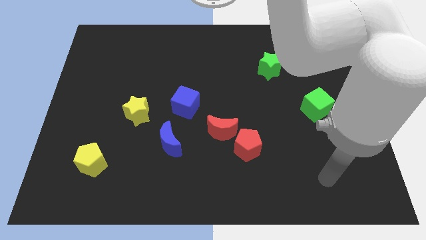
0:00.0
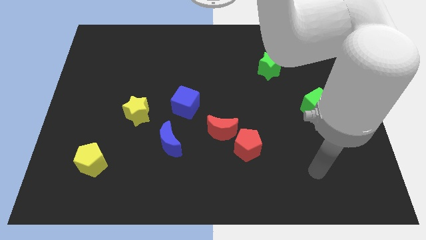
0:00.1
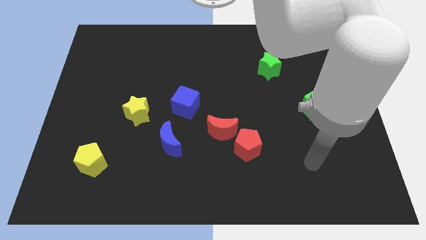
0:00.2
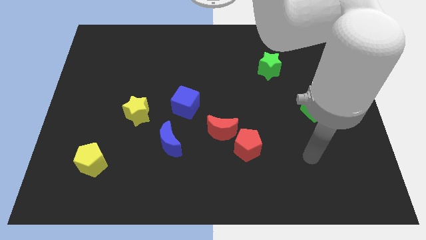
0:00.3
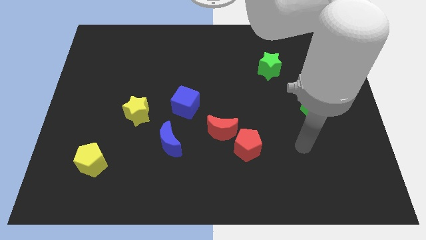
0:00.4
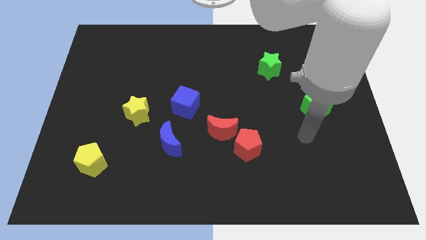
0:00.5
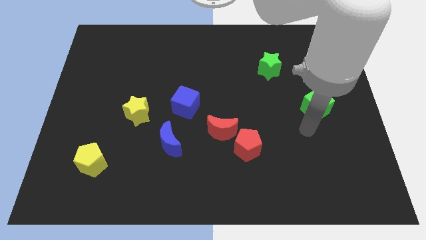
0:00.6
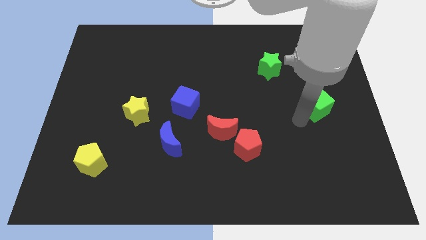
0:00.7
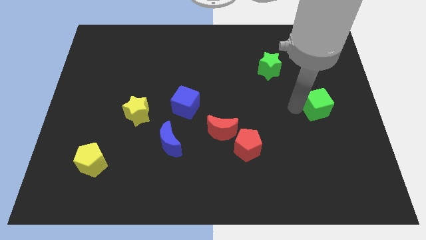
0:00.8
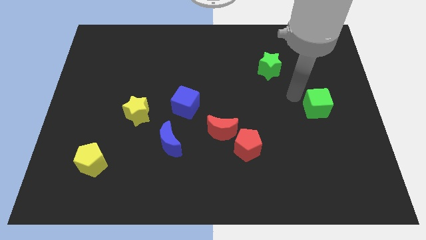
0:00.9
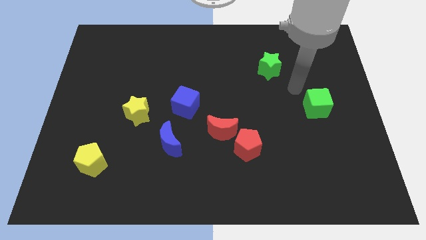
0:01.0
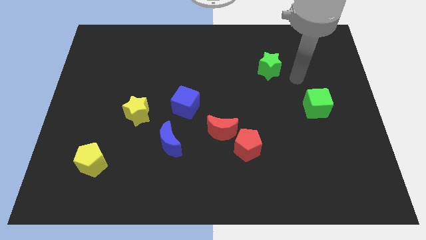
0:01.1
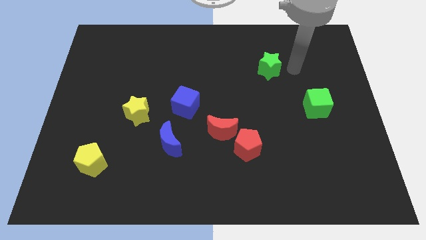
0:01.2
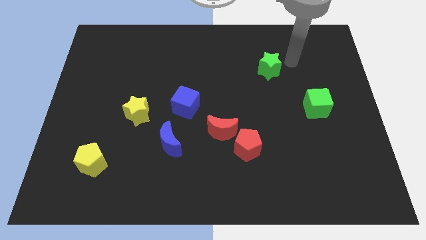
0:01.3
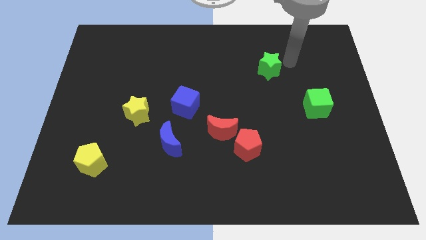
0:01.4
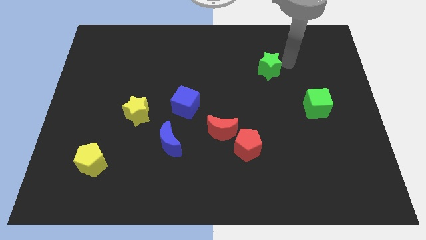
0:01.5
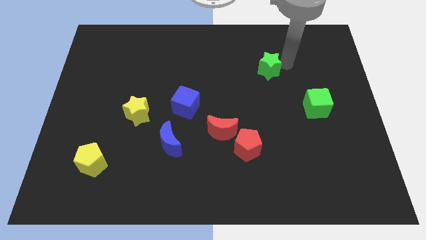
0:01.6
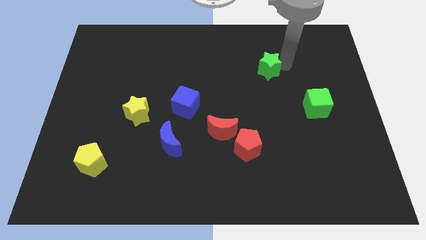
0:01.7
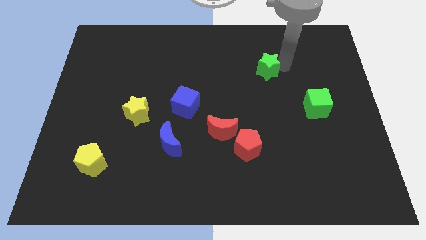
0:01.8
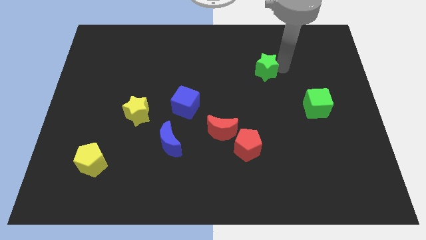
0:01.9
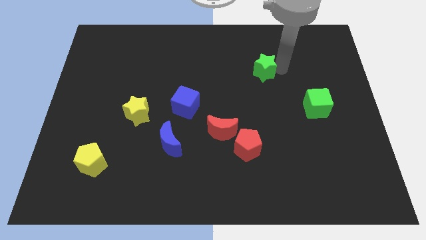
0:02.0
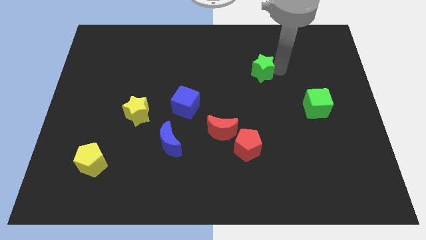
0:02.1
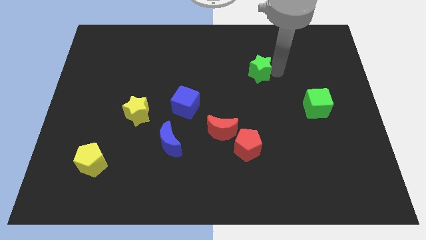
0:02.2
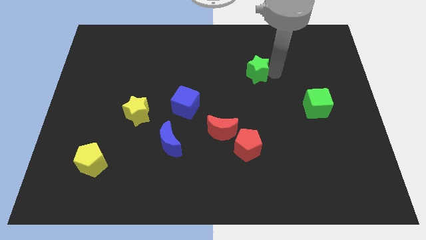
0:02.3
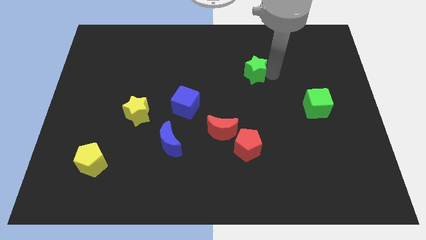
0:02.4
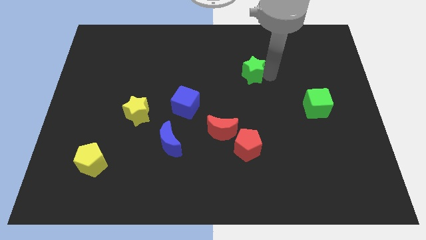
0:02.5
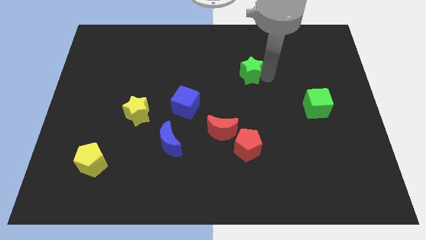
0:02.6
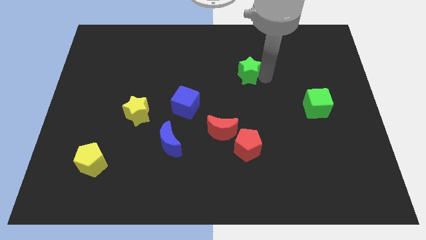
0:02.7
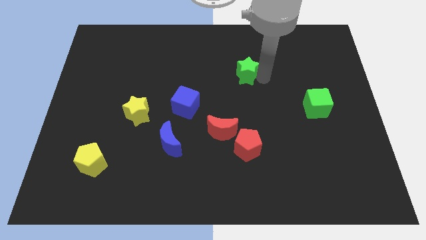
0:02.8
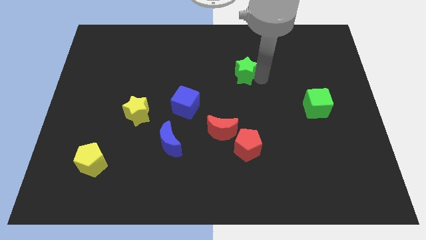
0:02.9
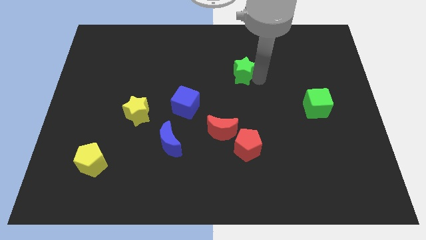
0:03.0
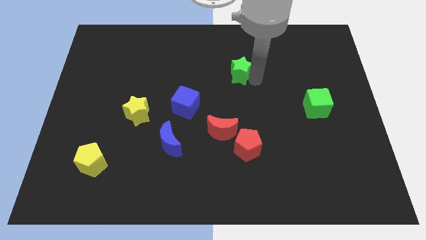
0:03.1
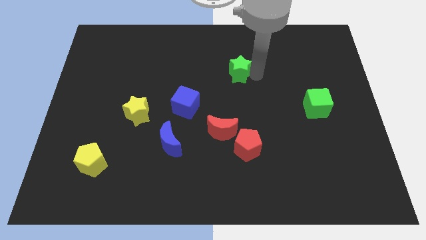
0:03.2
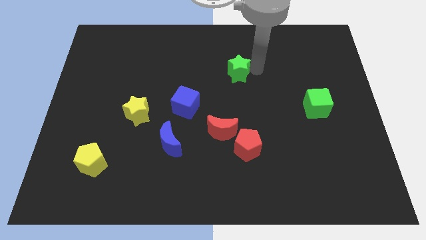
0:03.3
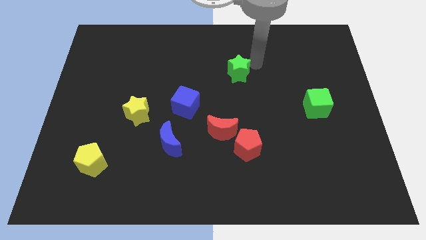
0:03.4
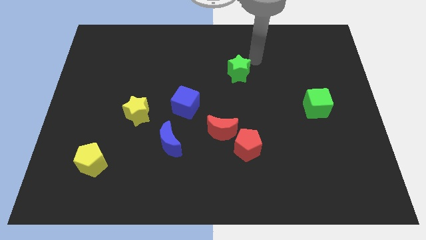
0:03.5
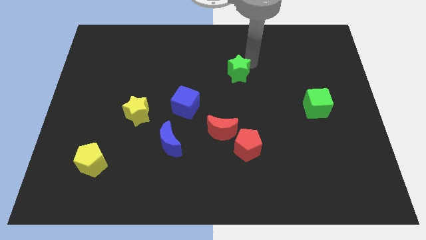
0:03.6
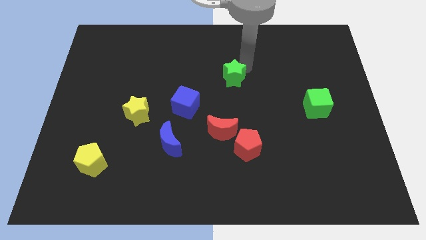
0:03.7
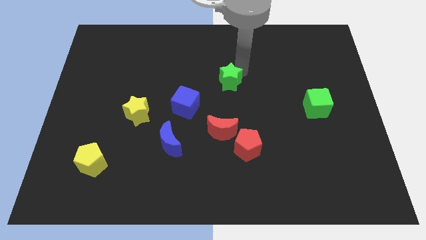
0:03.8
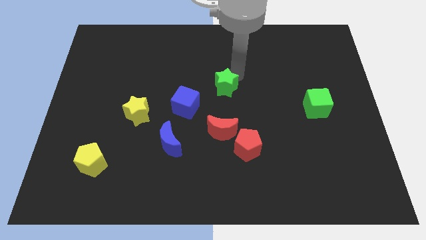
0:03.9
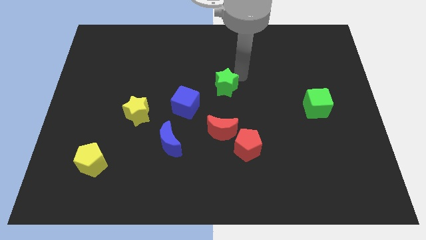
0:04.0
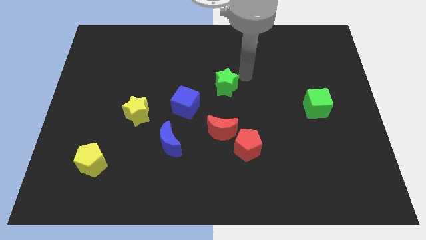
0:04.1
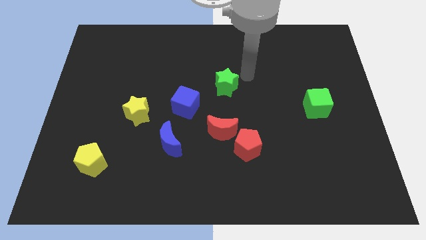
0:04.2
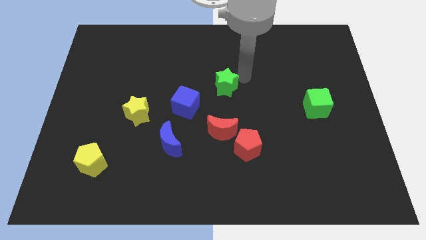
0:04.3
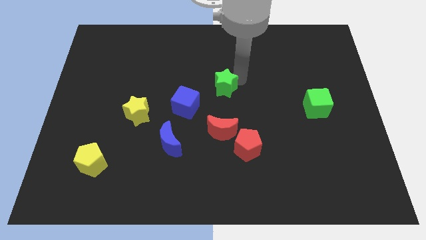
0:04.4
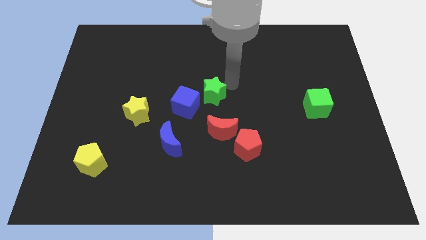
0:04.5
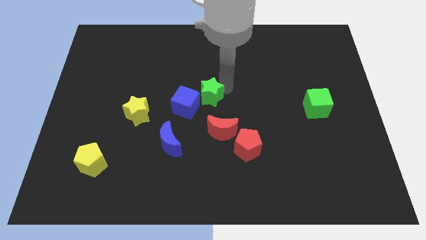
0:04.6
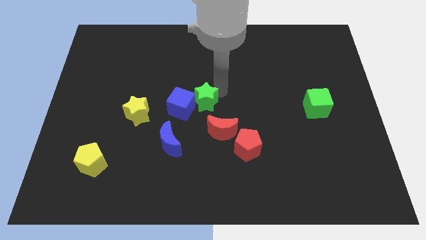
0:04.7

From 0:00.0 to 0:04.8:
put the green star to the blue cube

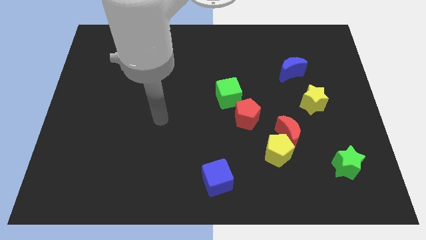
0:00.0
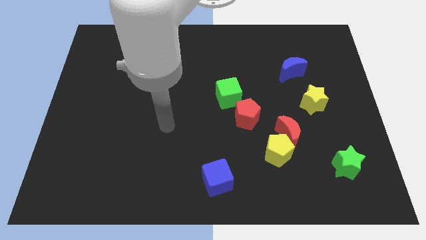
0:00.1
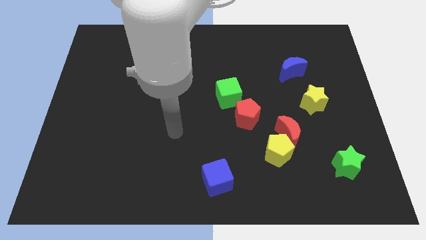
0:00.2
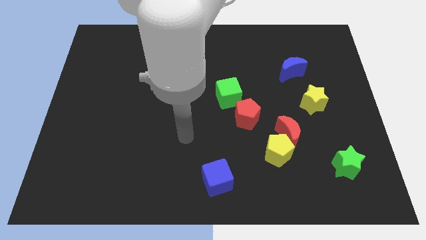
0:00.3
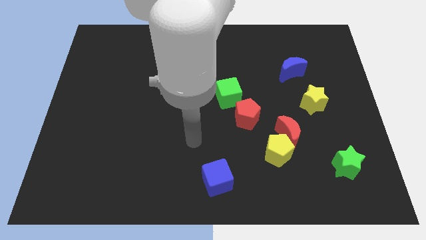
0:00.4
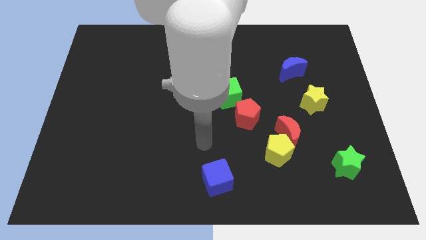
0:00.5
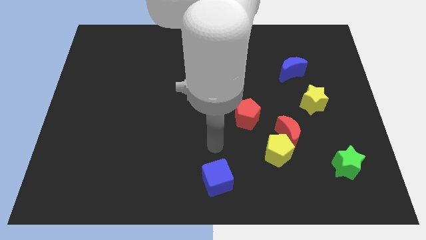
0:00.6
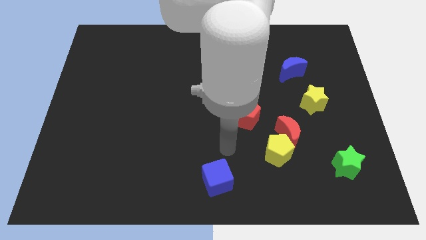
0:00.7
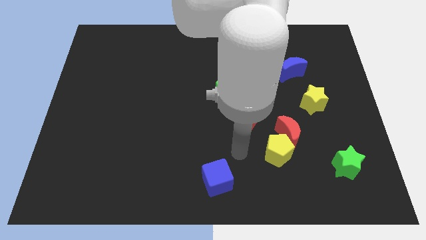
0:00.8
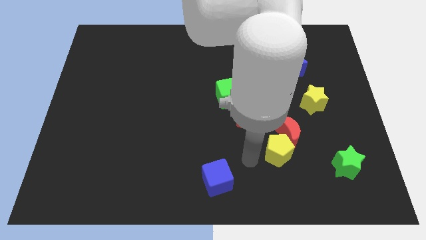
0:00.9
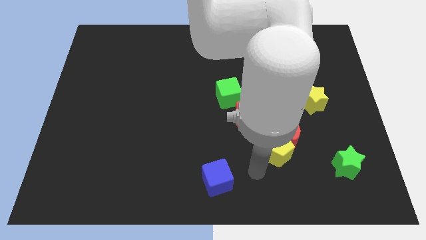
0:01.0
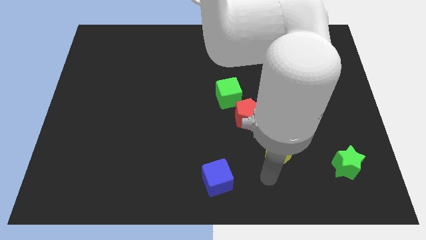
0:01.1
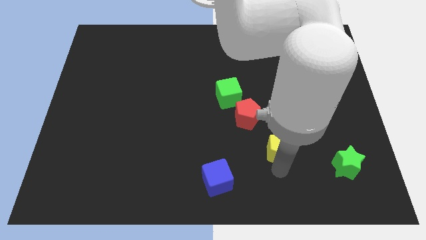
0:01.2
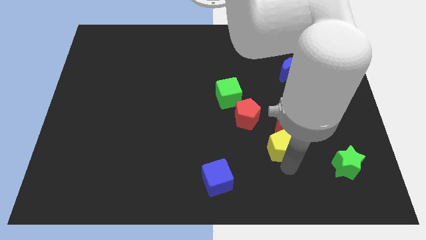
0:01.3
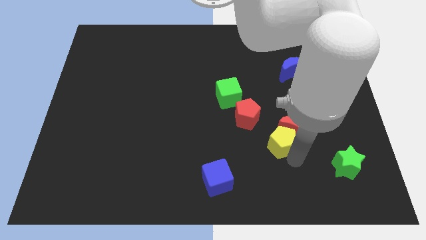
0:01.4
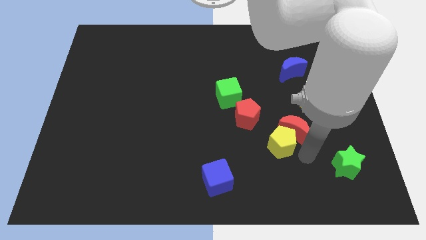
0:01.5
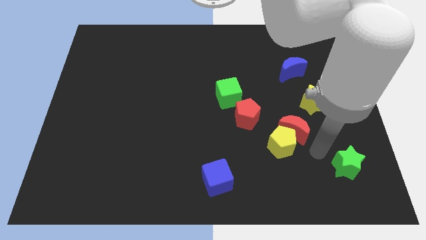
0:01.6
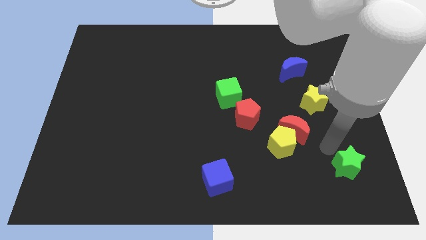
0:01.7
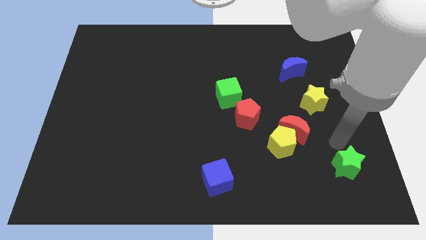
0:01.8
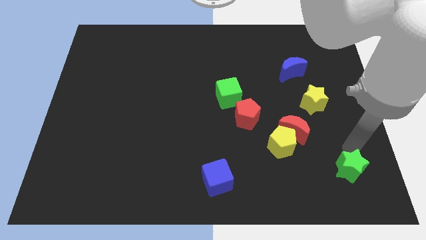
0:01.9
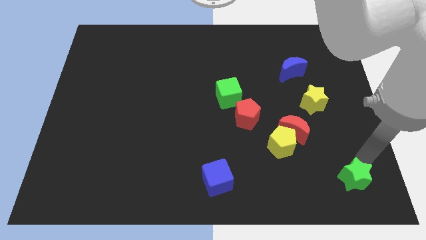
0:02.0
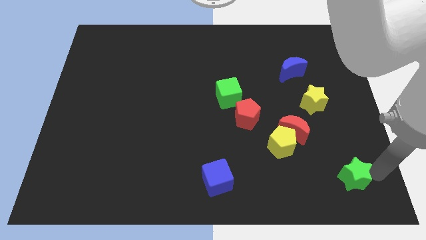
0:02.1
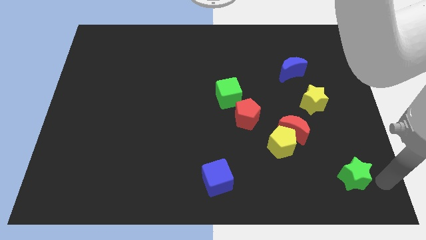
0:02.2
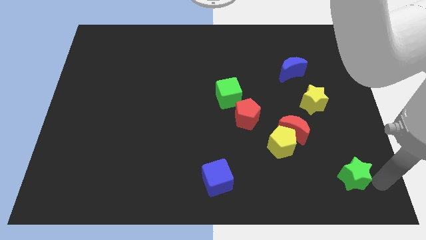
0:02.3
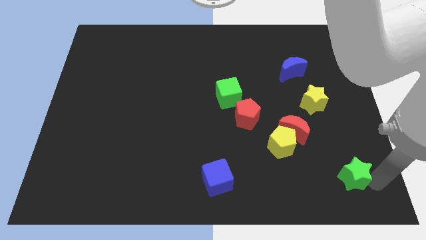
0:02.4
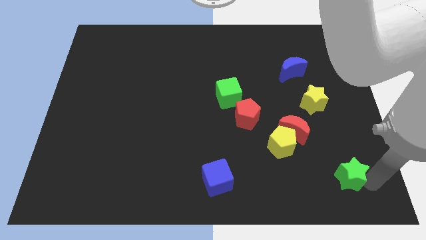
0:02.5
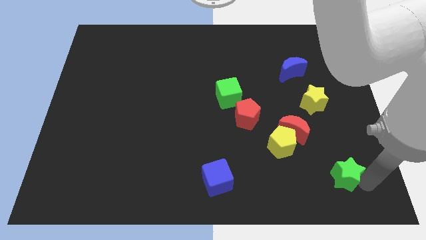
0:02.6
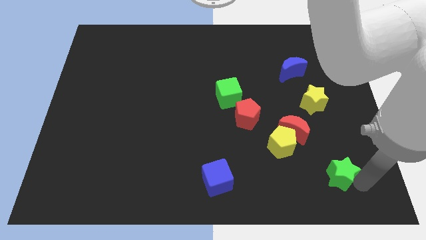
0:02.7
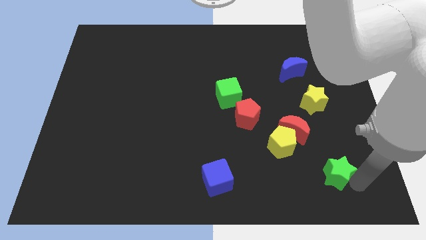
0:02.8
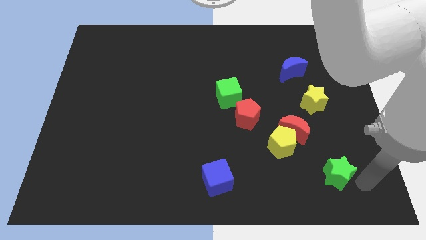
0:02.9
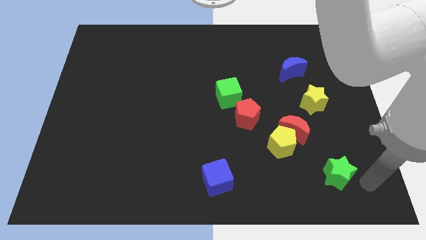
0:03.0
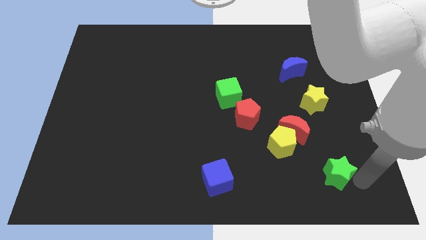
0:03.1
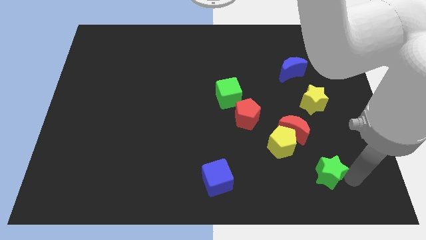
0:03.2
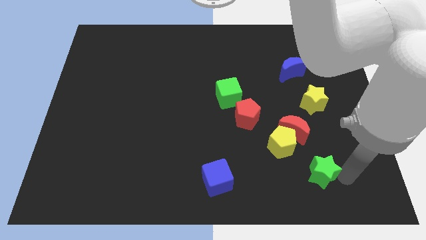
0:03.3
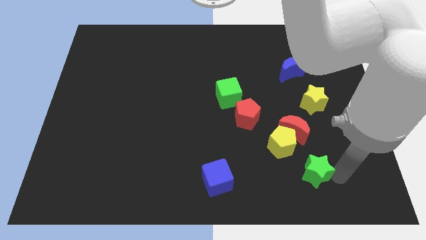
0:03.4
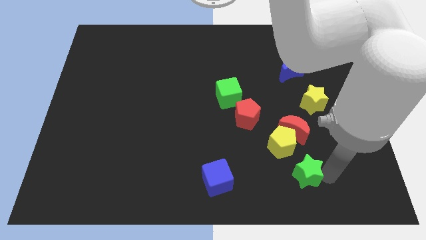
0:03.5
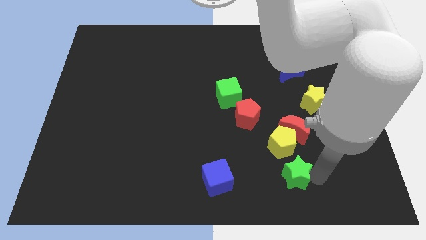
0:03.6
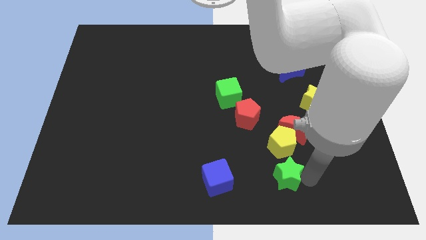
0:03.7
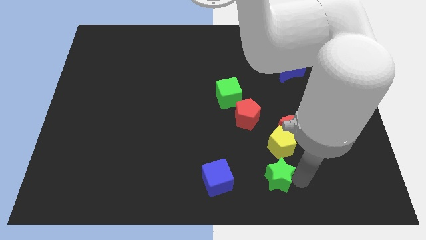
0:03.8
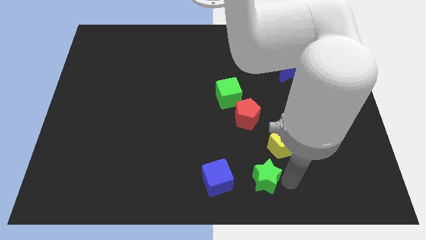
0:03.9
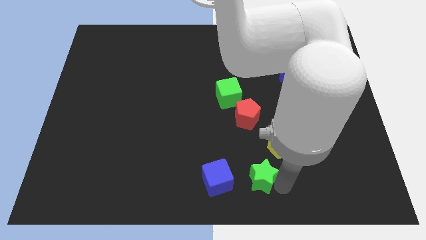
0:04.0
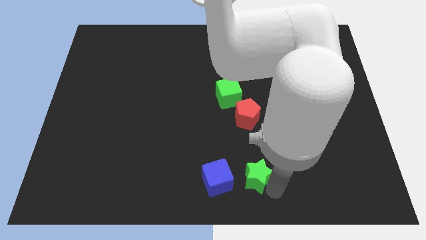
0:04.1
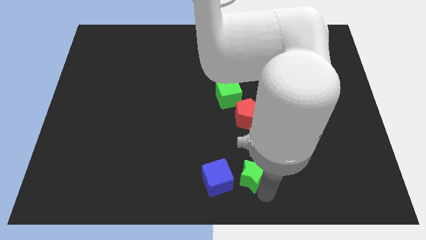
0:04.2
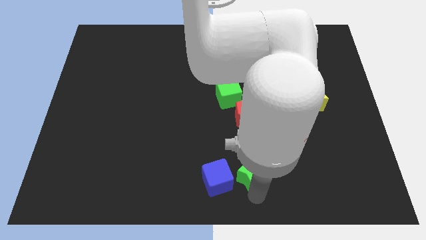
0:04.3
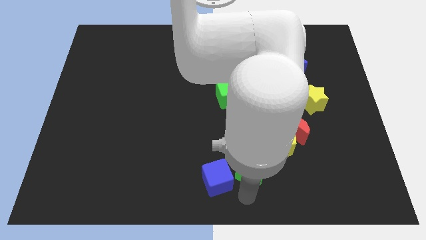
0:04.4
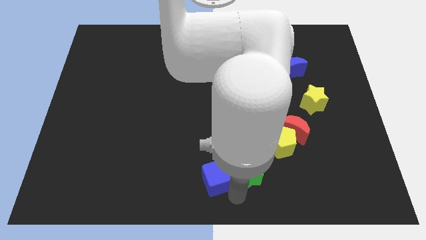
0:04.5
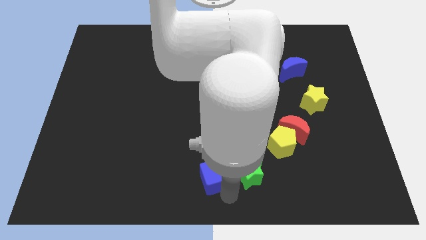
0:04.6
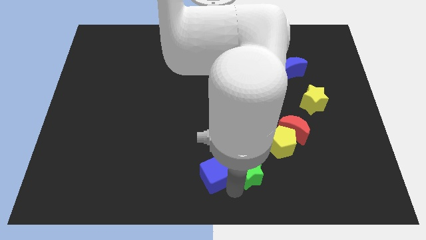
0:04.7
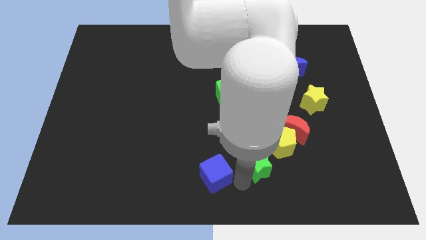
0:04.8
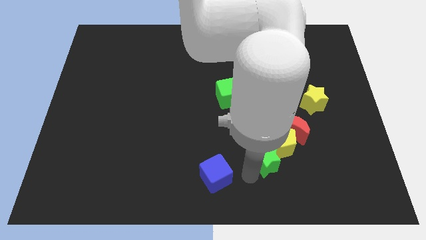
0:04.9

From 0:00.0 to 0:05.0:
slide the green star next to the yellow pentagon
